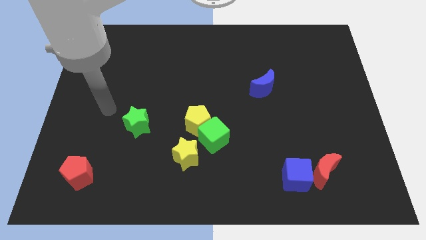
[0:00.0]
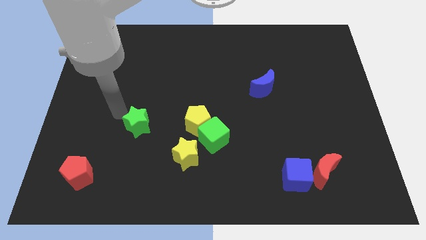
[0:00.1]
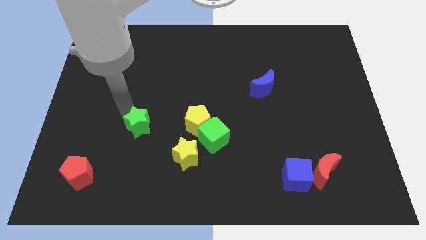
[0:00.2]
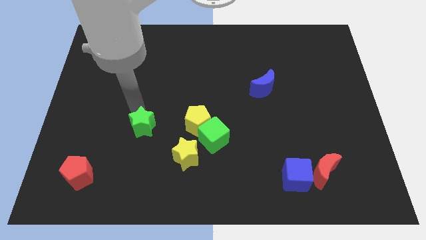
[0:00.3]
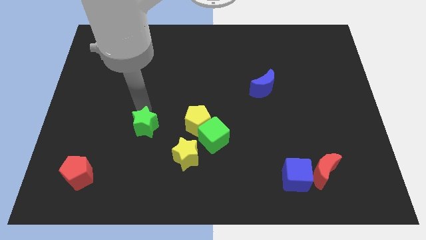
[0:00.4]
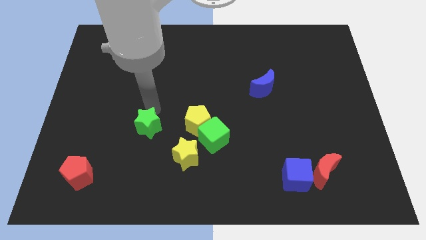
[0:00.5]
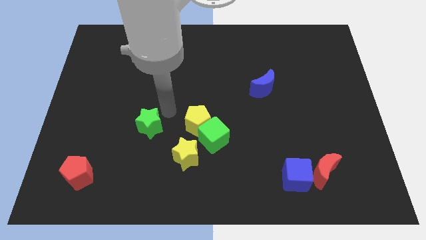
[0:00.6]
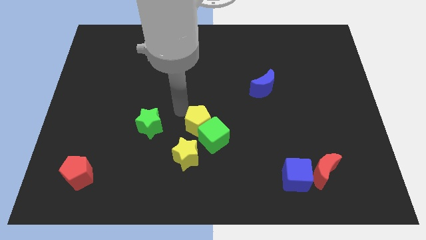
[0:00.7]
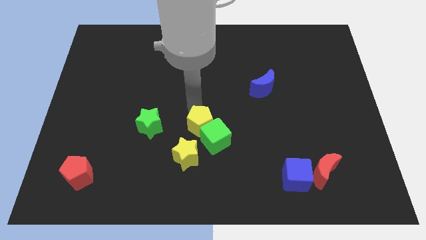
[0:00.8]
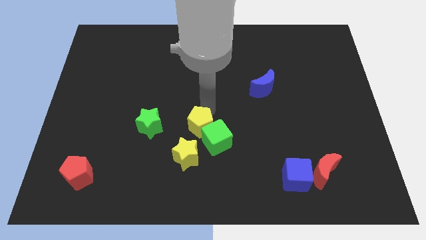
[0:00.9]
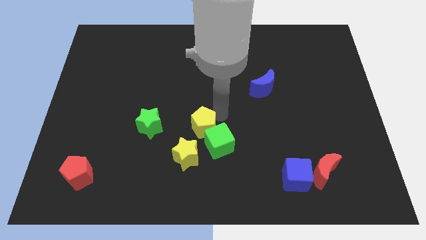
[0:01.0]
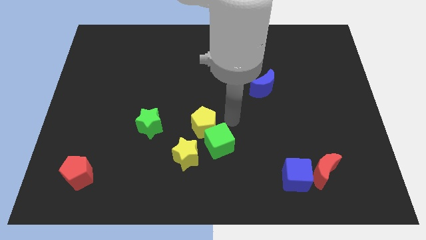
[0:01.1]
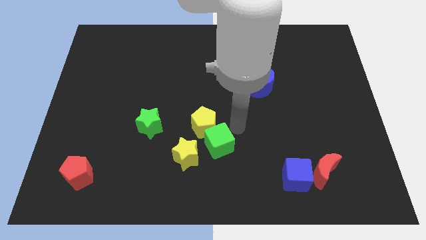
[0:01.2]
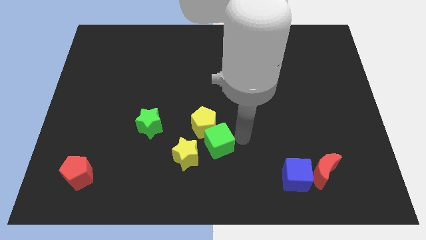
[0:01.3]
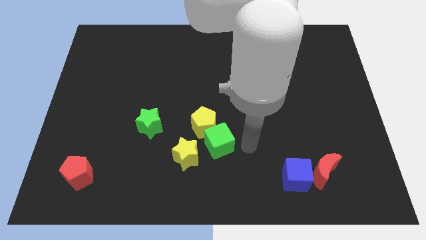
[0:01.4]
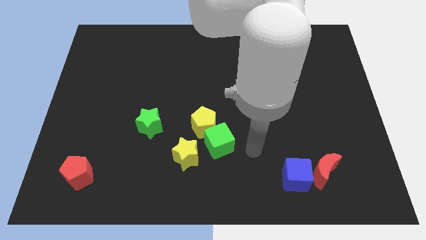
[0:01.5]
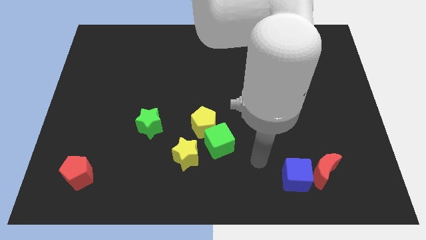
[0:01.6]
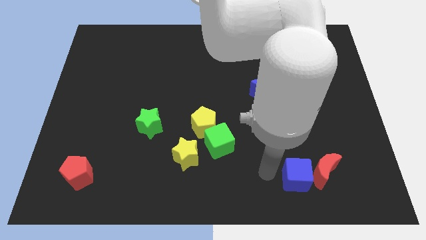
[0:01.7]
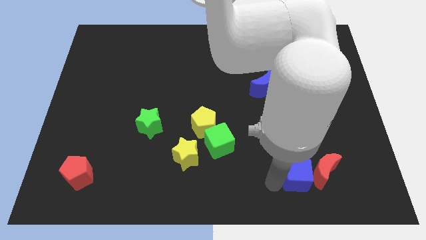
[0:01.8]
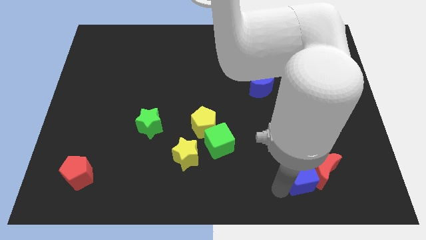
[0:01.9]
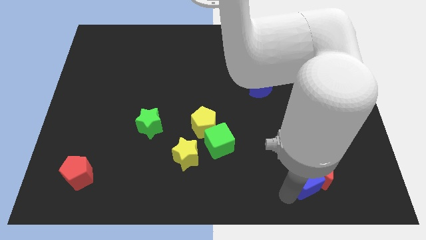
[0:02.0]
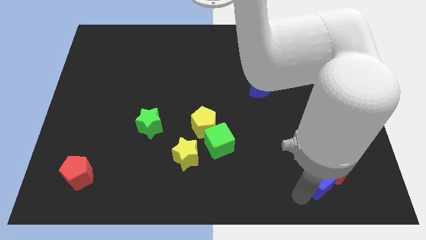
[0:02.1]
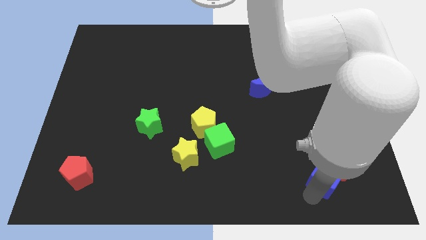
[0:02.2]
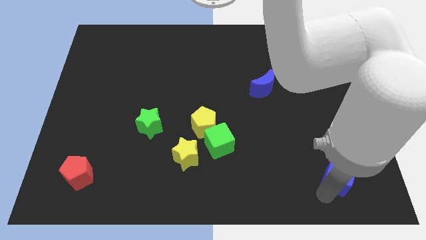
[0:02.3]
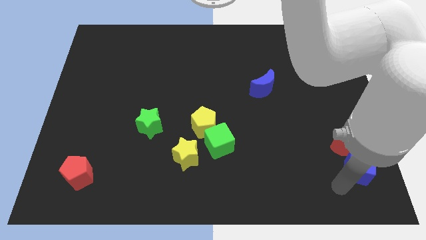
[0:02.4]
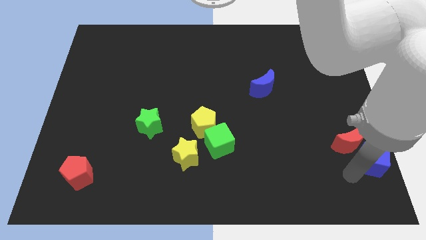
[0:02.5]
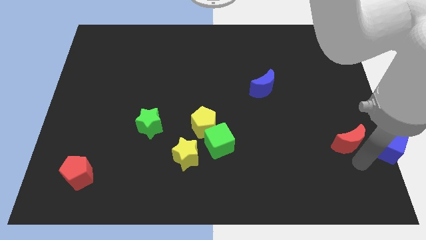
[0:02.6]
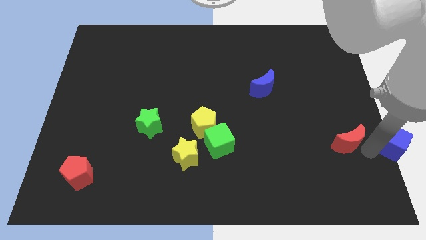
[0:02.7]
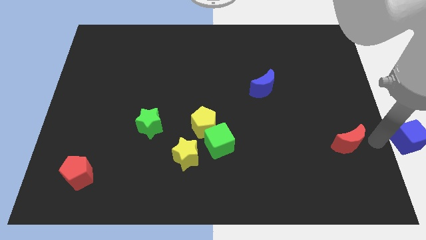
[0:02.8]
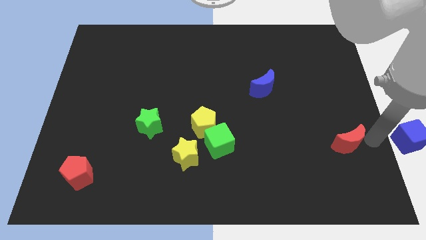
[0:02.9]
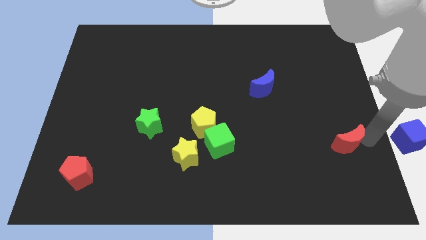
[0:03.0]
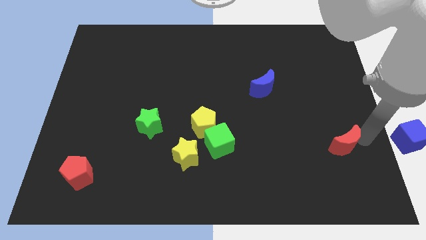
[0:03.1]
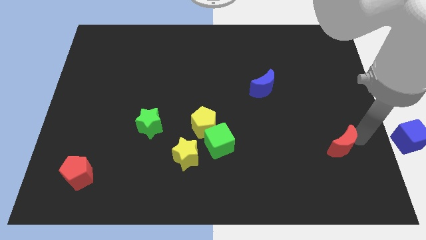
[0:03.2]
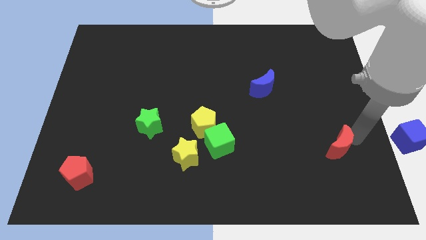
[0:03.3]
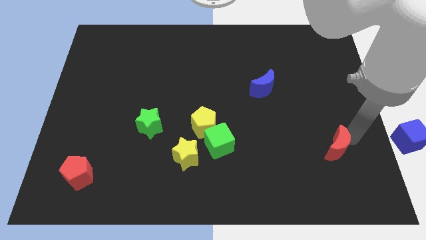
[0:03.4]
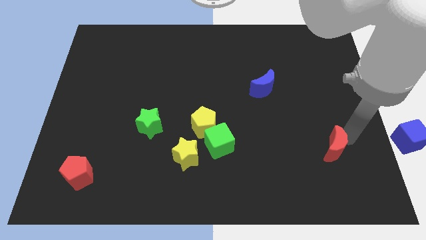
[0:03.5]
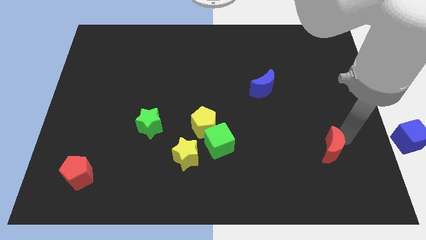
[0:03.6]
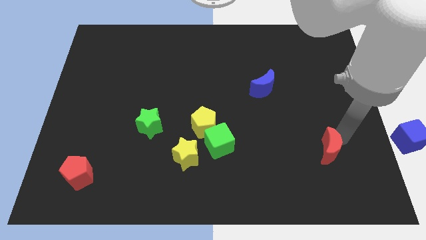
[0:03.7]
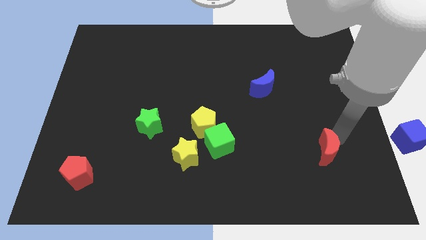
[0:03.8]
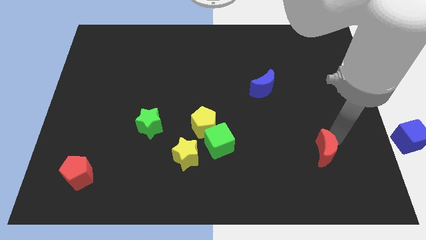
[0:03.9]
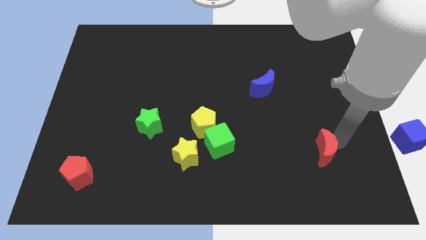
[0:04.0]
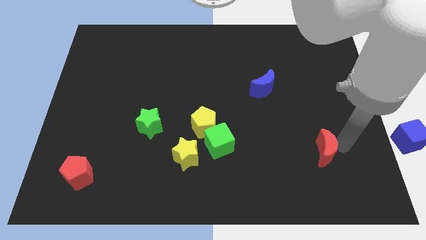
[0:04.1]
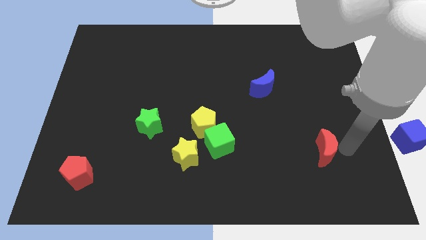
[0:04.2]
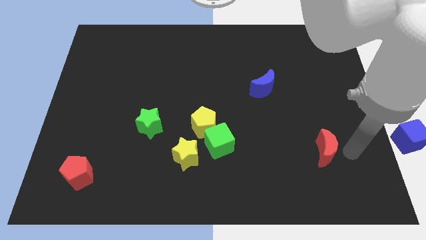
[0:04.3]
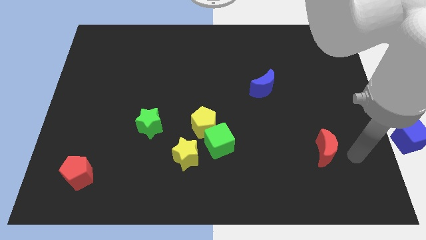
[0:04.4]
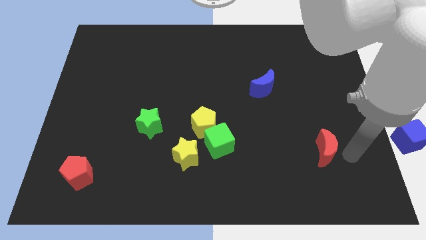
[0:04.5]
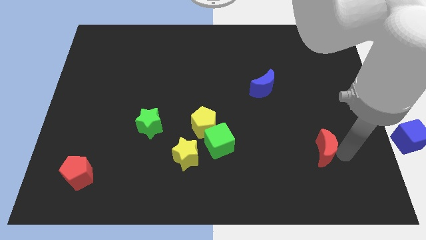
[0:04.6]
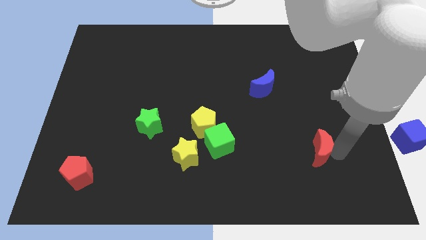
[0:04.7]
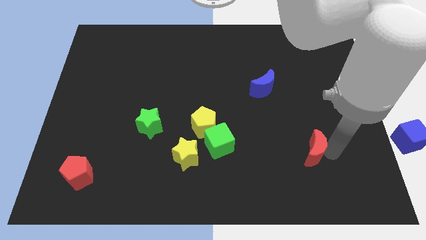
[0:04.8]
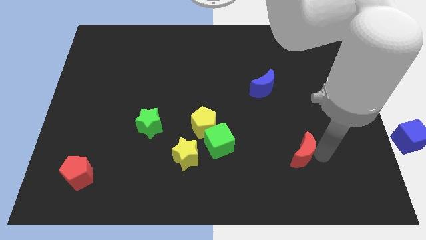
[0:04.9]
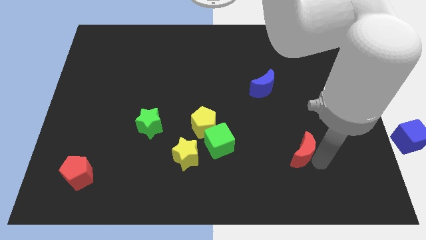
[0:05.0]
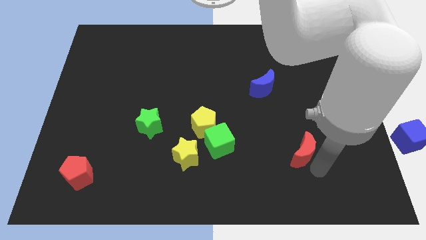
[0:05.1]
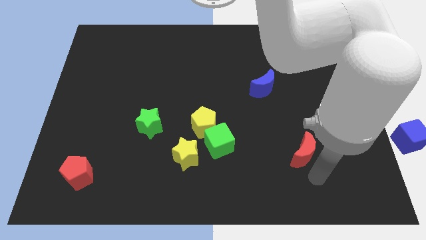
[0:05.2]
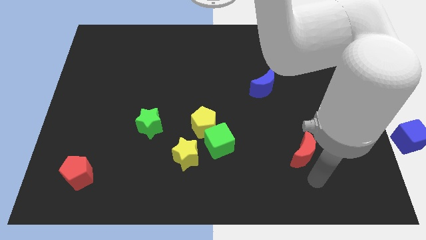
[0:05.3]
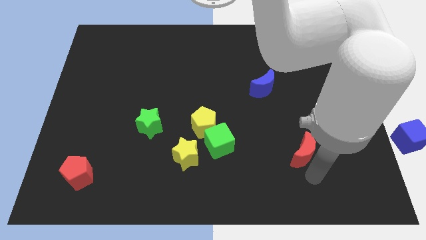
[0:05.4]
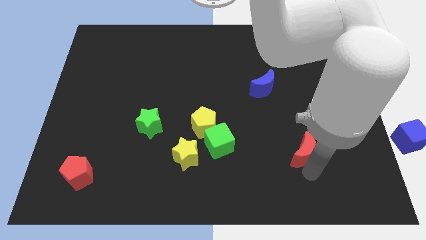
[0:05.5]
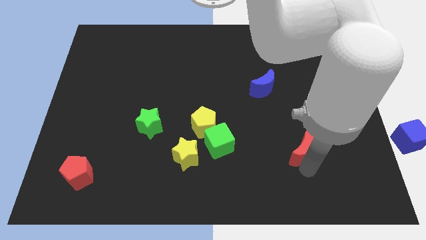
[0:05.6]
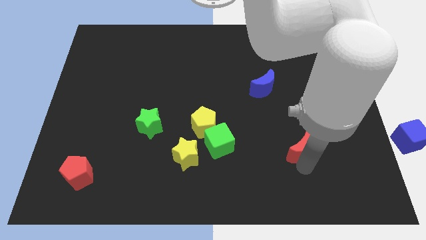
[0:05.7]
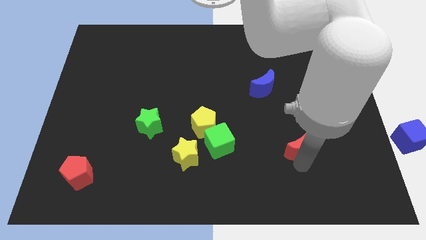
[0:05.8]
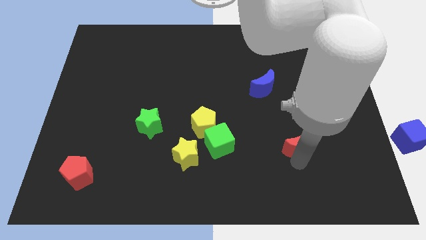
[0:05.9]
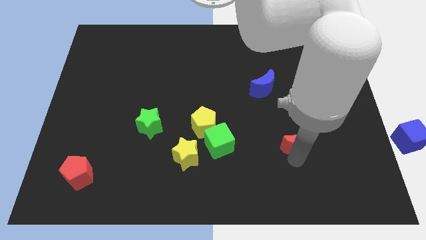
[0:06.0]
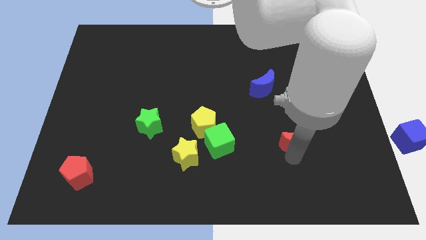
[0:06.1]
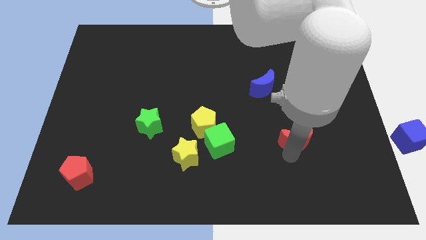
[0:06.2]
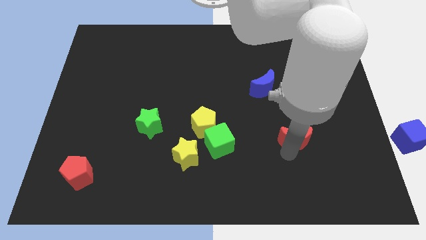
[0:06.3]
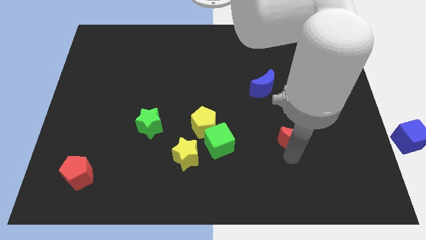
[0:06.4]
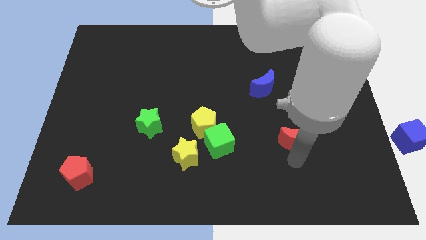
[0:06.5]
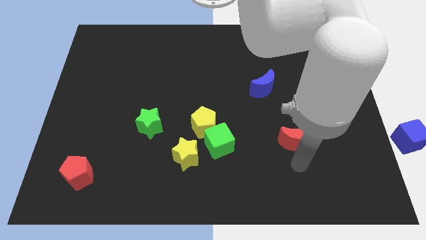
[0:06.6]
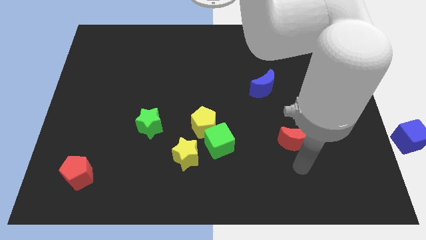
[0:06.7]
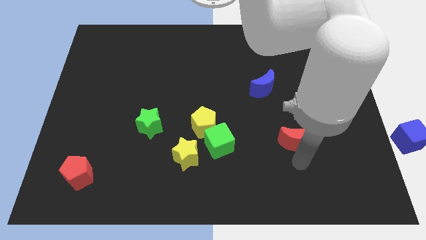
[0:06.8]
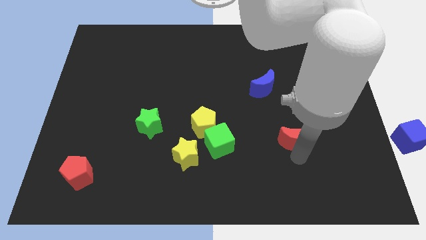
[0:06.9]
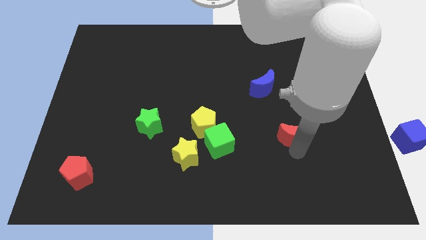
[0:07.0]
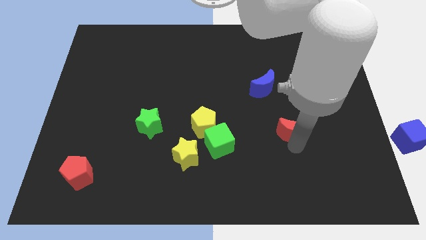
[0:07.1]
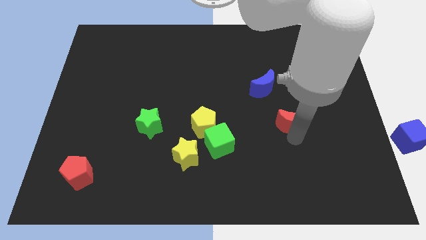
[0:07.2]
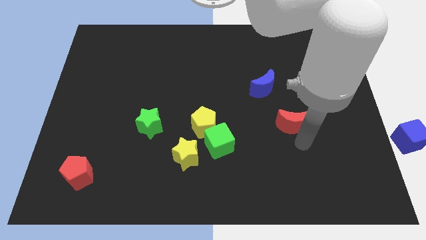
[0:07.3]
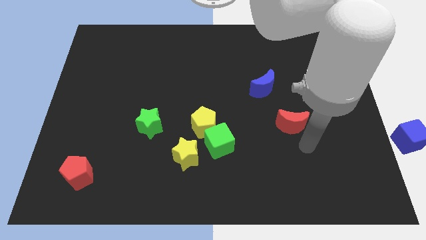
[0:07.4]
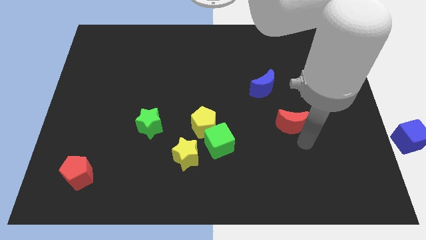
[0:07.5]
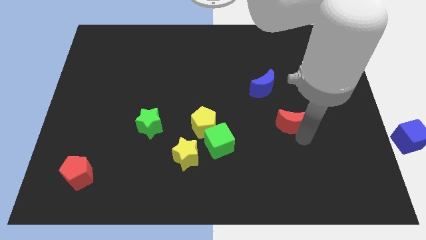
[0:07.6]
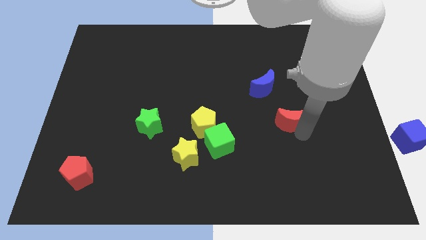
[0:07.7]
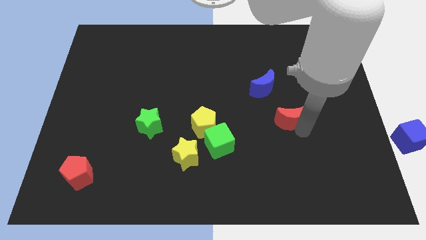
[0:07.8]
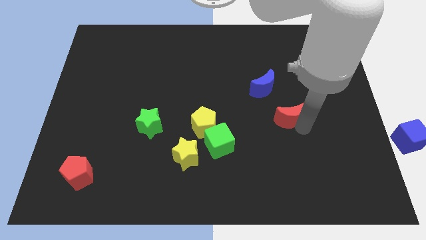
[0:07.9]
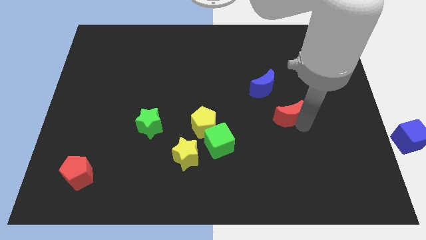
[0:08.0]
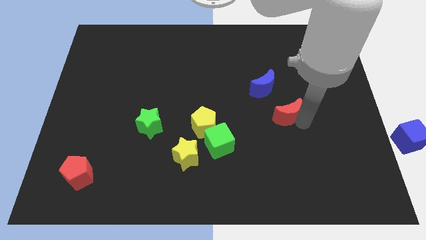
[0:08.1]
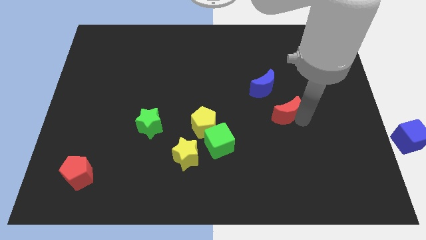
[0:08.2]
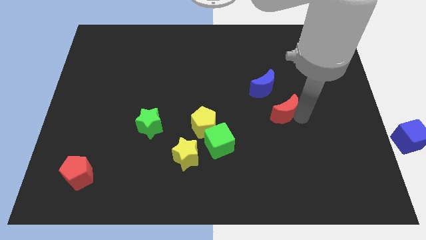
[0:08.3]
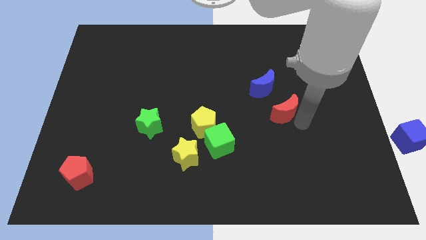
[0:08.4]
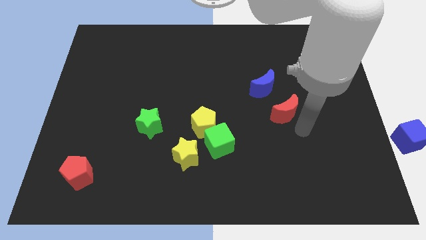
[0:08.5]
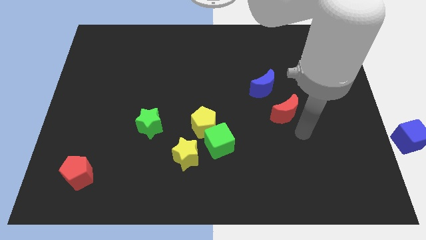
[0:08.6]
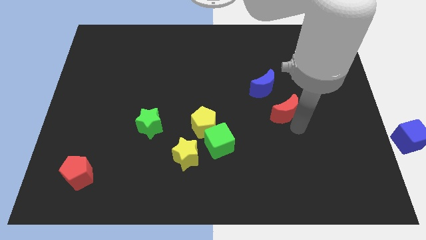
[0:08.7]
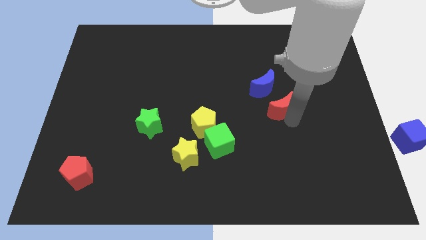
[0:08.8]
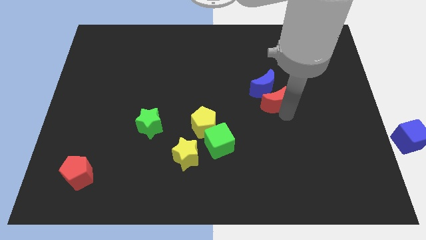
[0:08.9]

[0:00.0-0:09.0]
slide the red moon next to the blue moon
